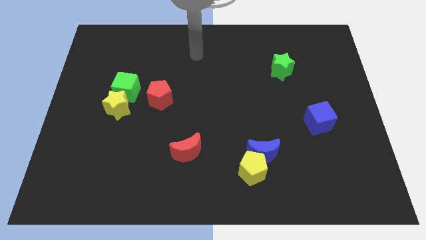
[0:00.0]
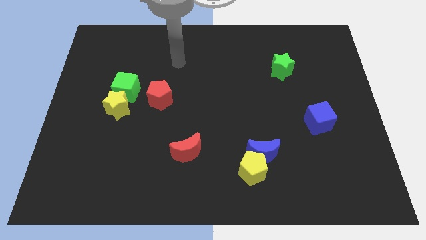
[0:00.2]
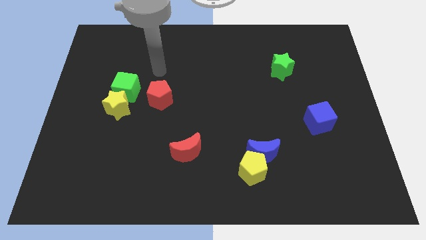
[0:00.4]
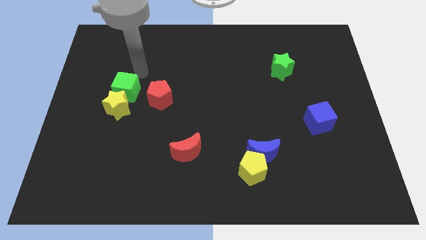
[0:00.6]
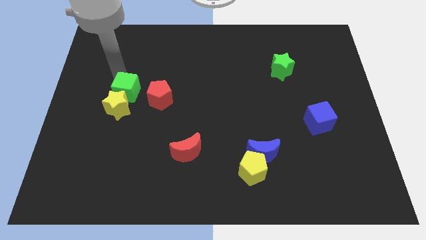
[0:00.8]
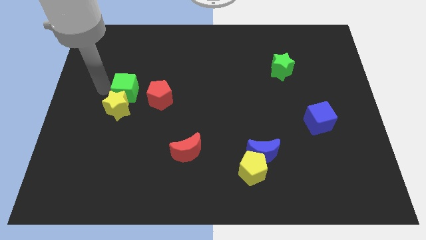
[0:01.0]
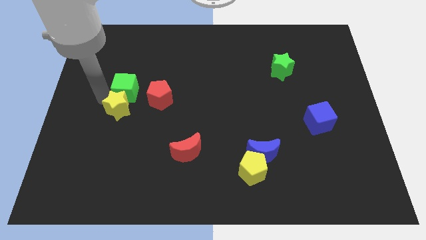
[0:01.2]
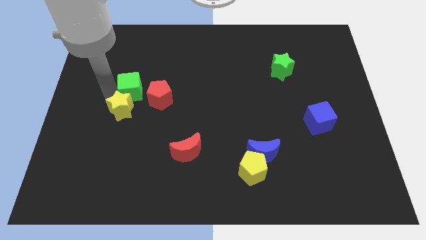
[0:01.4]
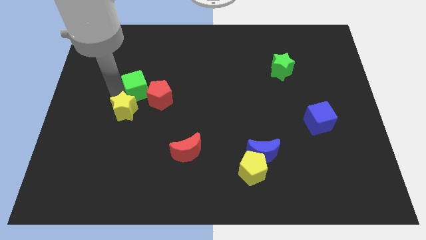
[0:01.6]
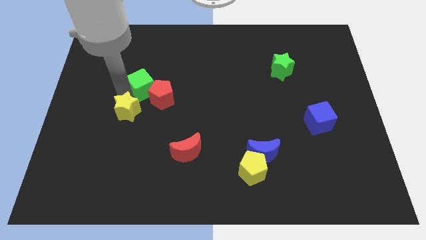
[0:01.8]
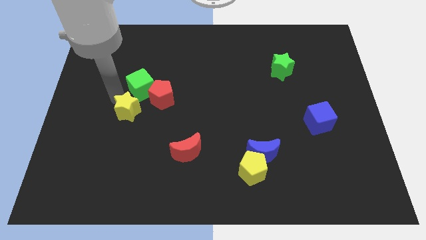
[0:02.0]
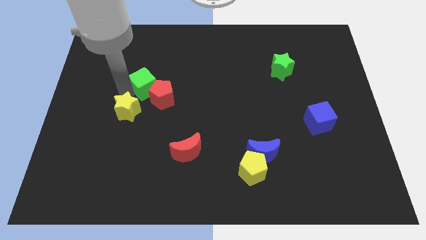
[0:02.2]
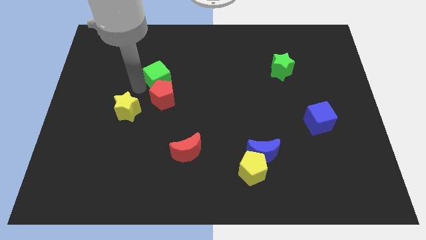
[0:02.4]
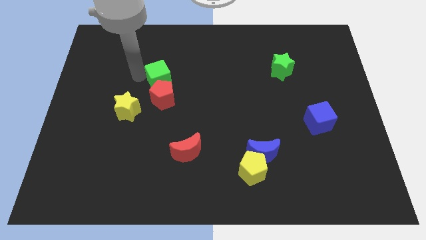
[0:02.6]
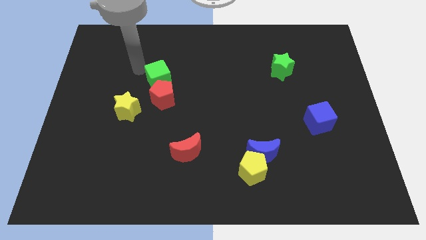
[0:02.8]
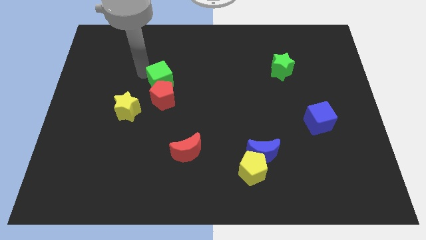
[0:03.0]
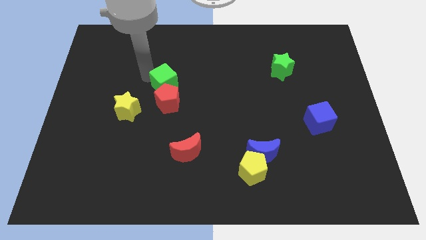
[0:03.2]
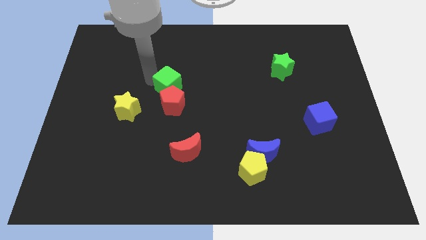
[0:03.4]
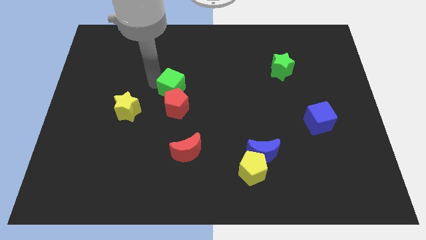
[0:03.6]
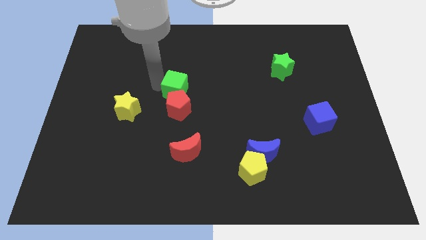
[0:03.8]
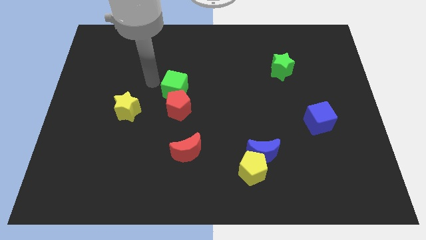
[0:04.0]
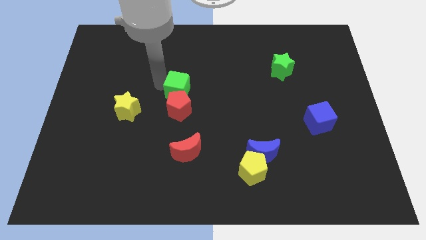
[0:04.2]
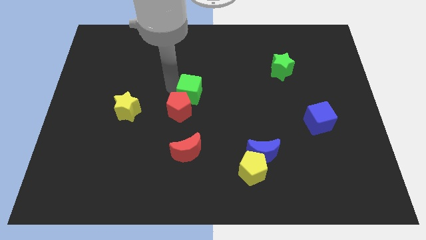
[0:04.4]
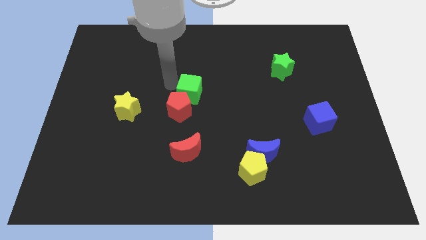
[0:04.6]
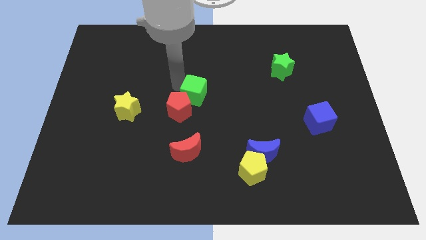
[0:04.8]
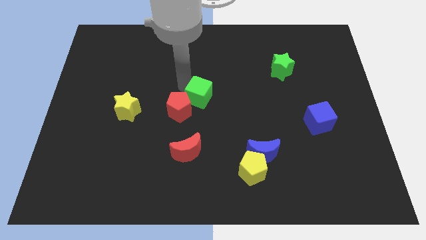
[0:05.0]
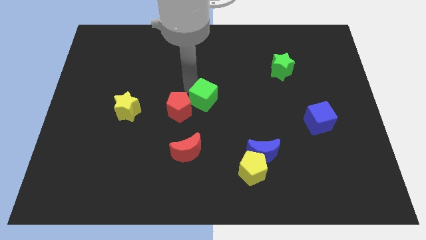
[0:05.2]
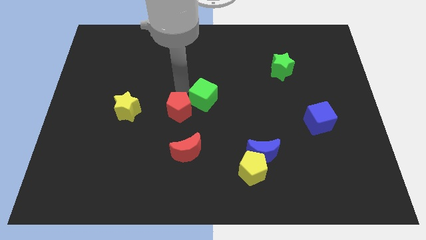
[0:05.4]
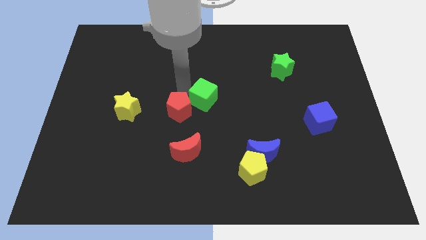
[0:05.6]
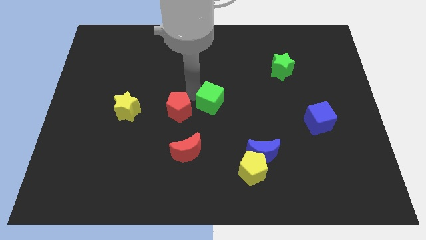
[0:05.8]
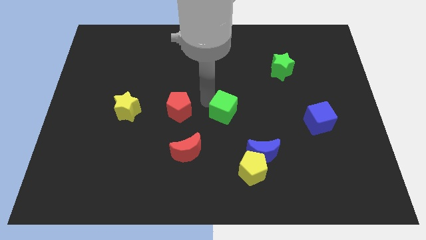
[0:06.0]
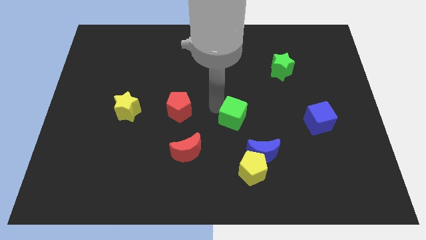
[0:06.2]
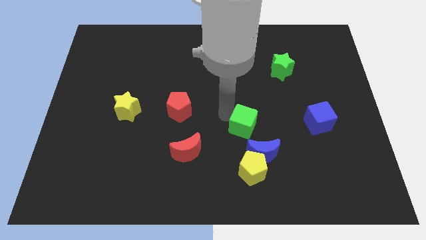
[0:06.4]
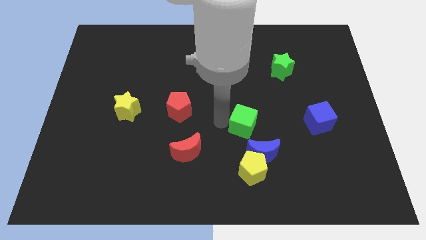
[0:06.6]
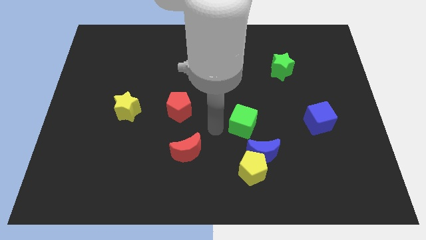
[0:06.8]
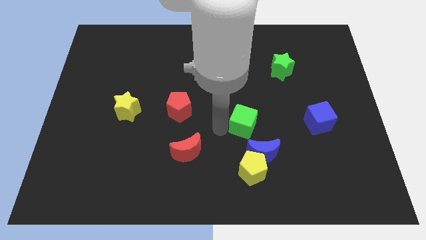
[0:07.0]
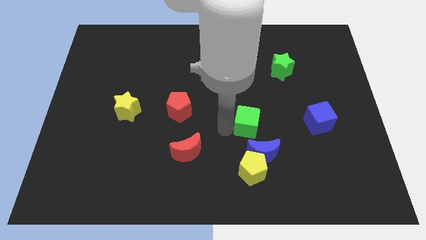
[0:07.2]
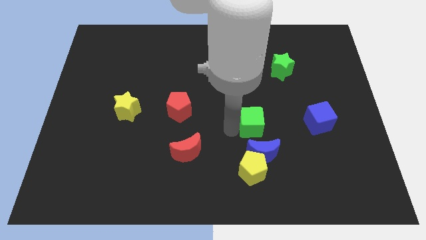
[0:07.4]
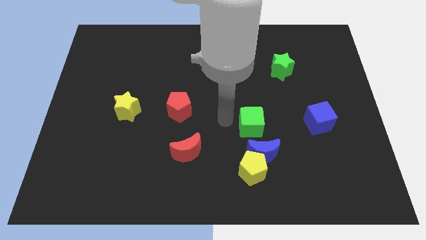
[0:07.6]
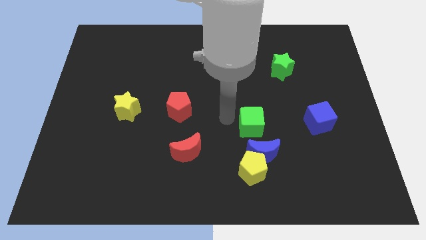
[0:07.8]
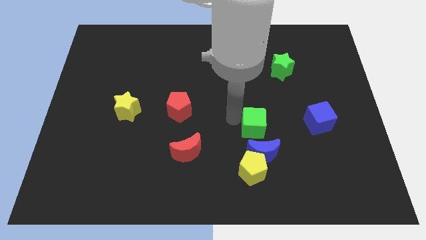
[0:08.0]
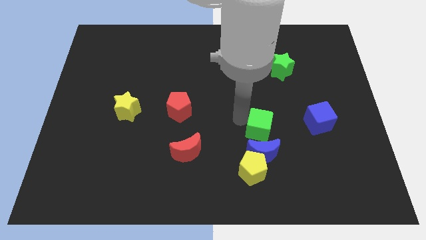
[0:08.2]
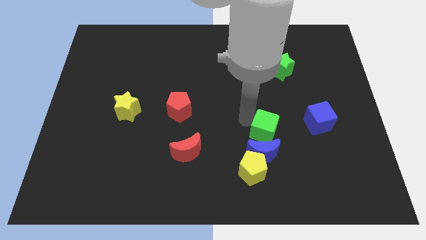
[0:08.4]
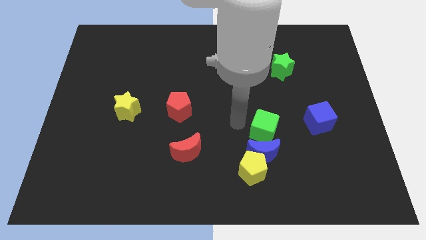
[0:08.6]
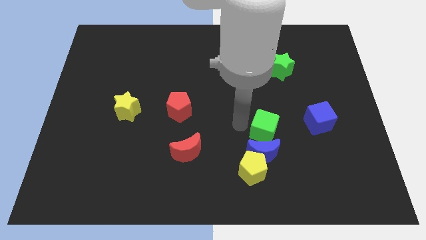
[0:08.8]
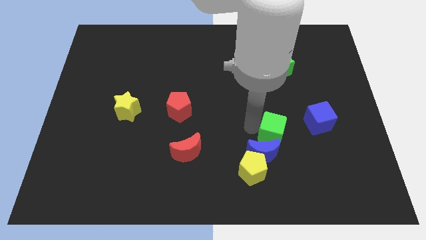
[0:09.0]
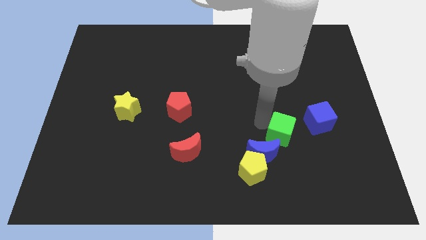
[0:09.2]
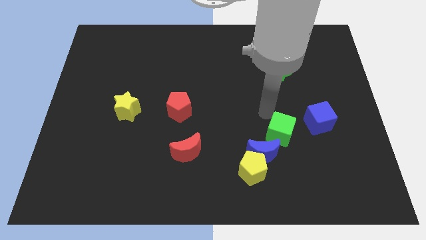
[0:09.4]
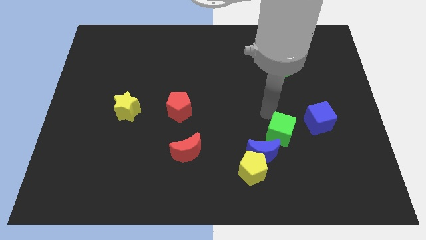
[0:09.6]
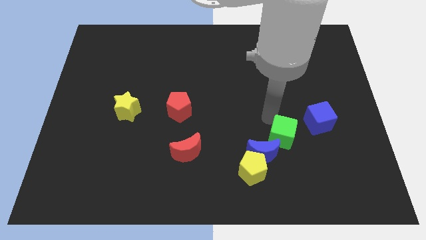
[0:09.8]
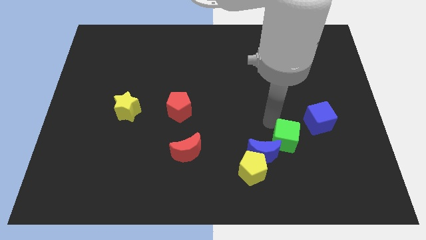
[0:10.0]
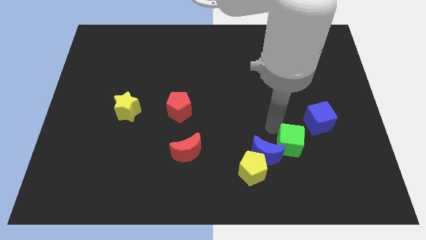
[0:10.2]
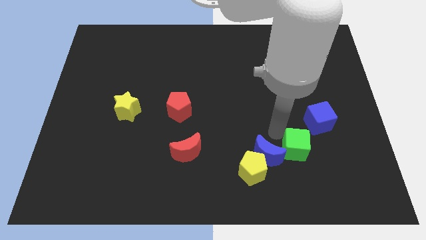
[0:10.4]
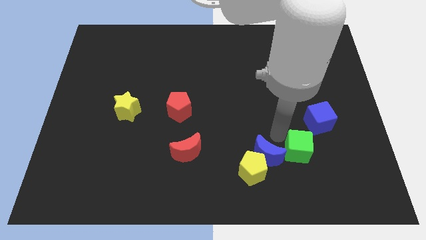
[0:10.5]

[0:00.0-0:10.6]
slide the green cube just right of the yellow pentagon

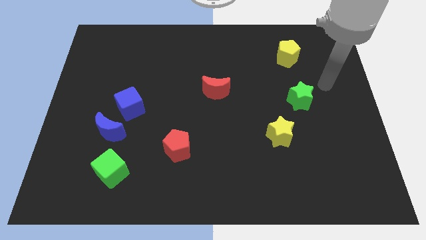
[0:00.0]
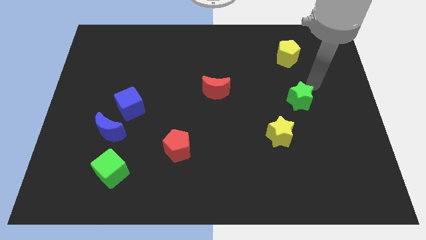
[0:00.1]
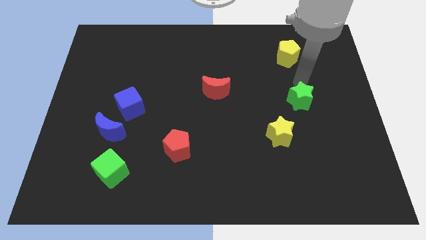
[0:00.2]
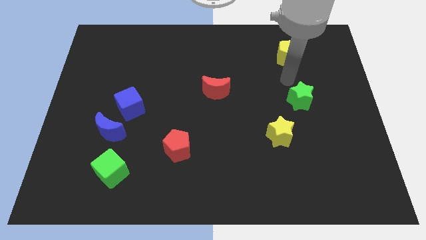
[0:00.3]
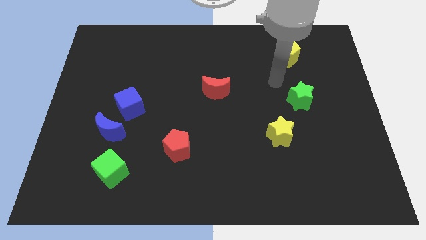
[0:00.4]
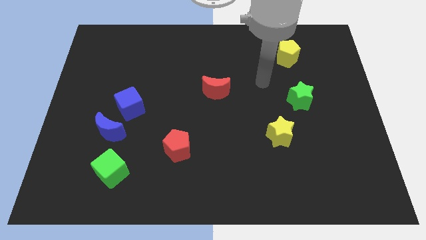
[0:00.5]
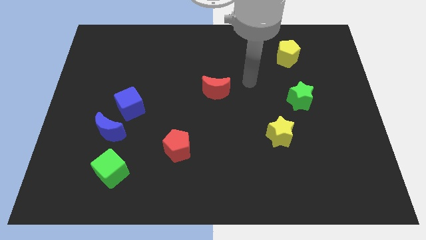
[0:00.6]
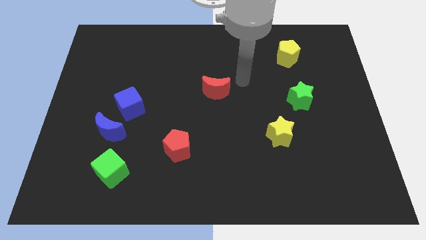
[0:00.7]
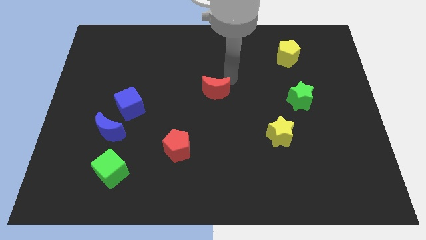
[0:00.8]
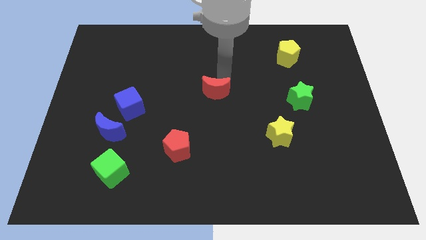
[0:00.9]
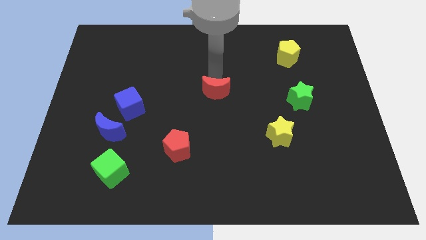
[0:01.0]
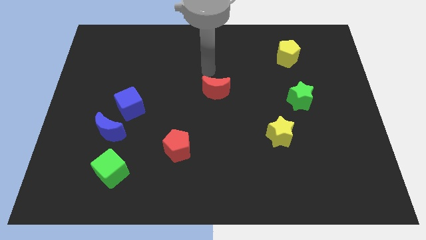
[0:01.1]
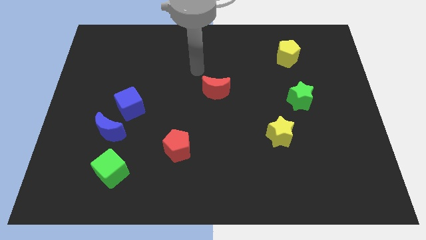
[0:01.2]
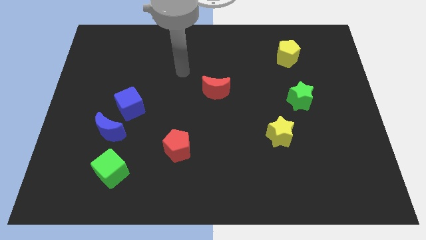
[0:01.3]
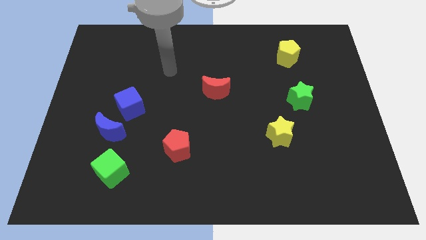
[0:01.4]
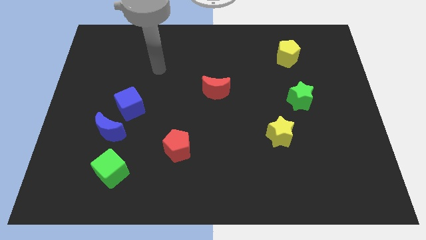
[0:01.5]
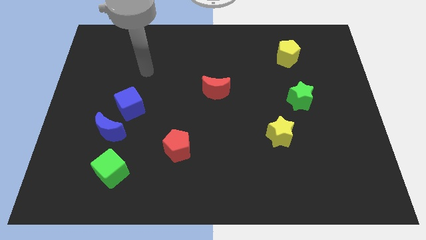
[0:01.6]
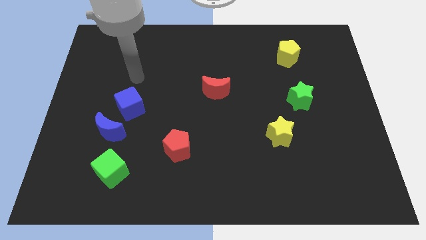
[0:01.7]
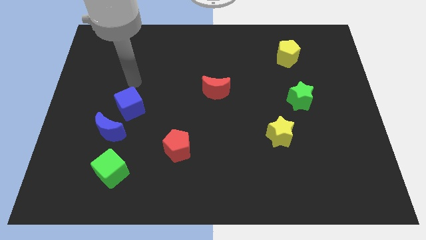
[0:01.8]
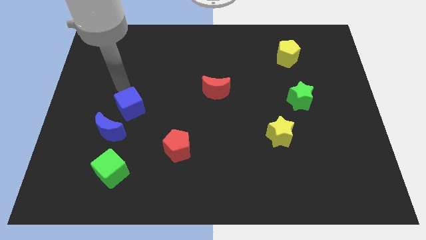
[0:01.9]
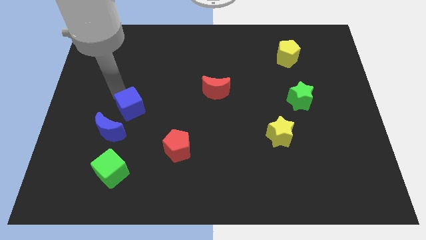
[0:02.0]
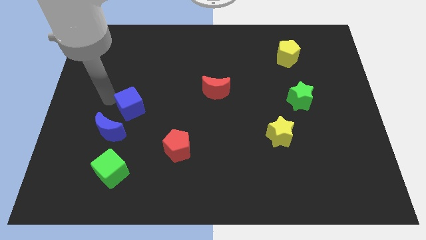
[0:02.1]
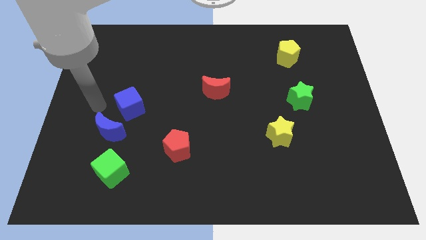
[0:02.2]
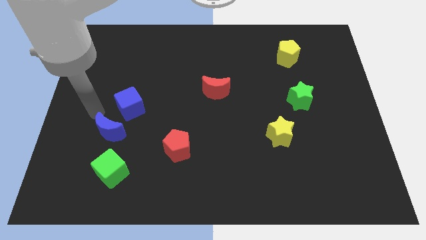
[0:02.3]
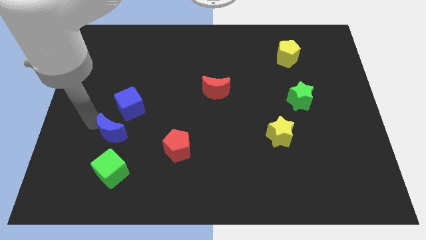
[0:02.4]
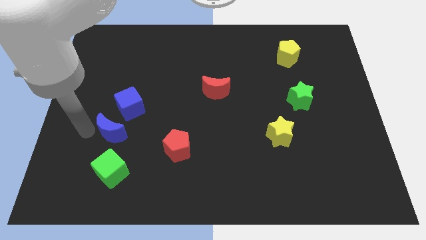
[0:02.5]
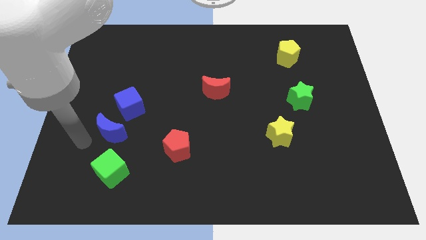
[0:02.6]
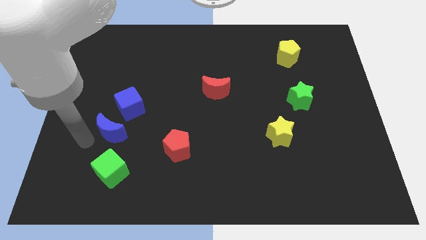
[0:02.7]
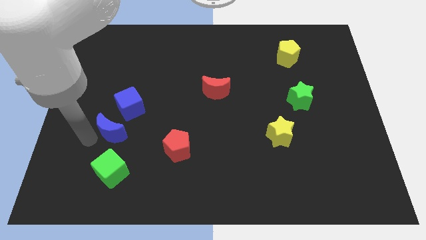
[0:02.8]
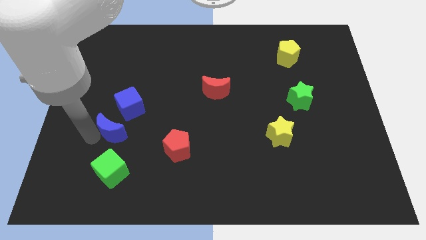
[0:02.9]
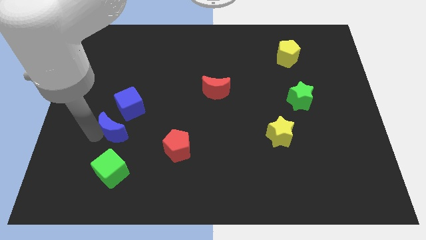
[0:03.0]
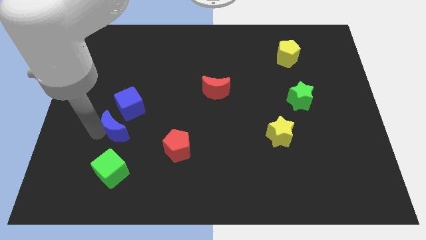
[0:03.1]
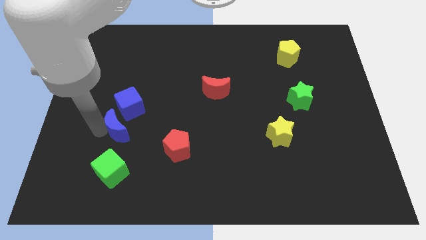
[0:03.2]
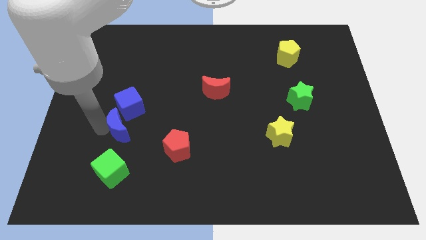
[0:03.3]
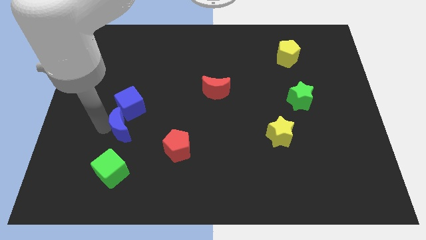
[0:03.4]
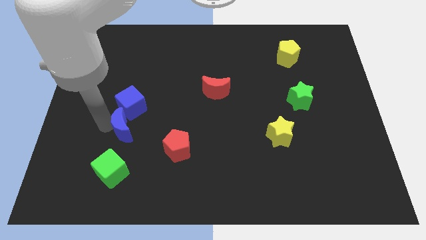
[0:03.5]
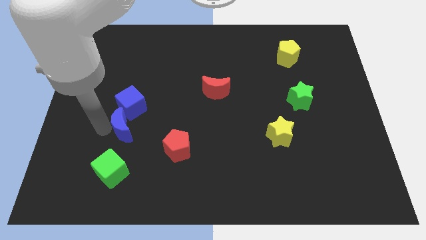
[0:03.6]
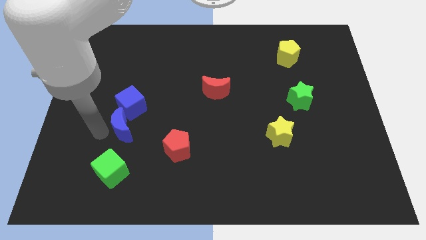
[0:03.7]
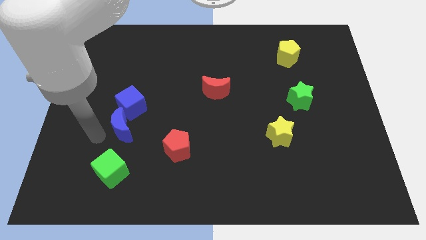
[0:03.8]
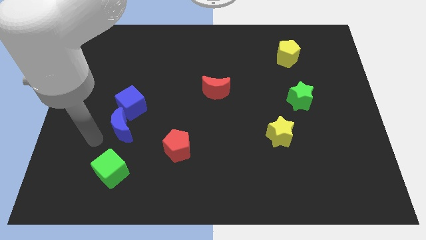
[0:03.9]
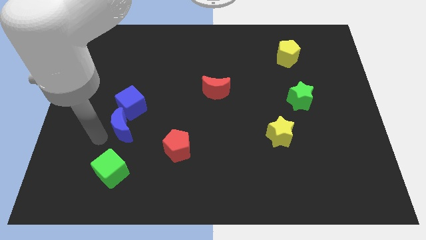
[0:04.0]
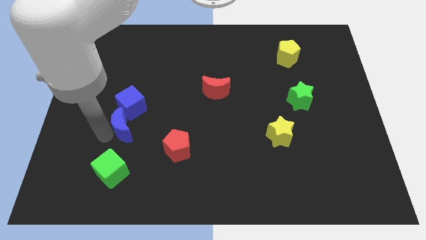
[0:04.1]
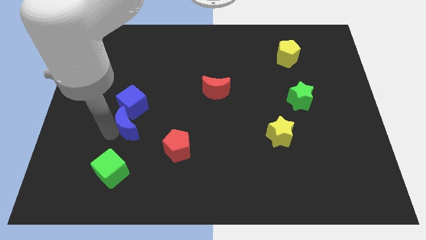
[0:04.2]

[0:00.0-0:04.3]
move the blue moon to the bottom right side of the blue cube
